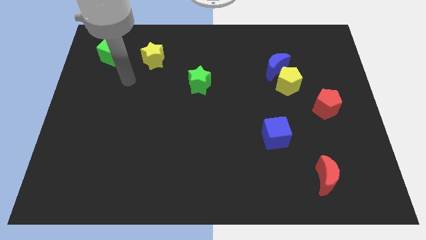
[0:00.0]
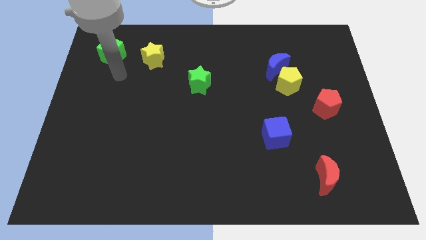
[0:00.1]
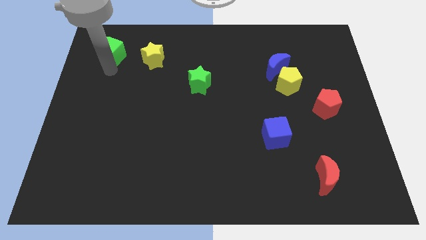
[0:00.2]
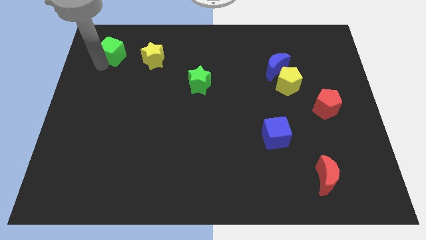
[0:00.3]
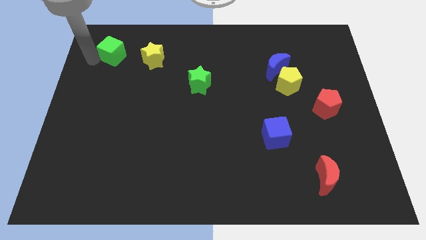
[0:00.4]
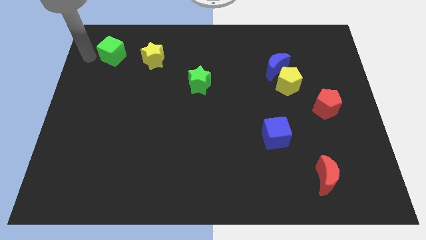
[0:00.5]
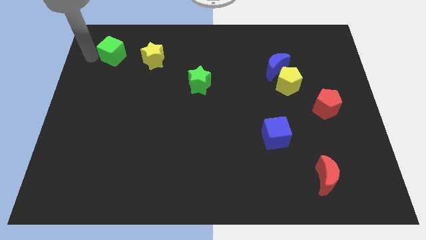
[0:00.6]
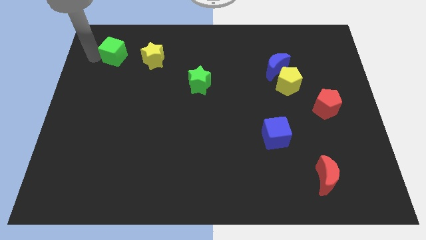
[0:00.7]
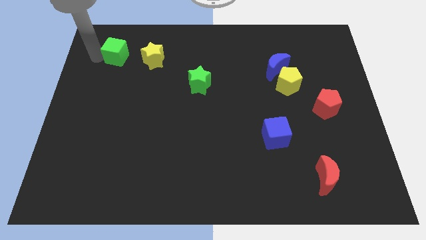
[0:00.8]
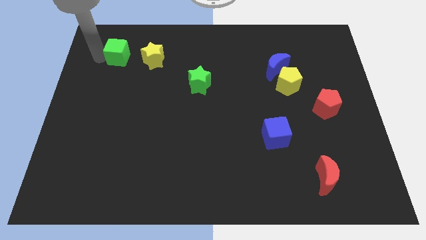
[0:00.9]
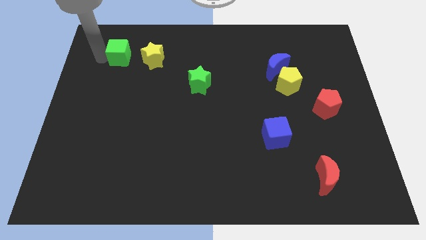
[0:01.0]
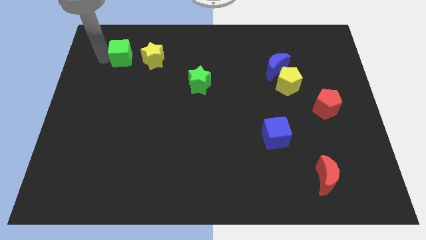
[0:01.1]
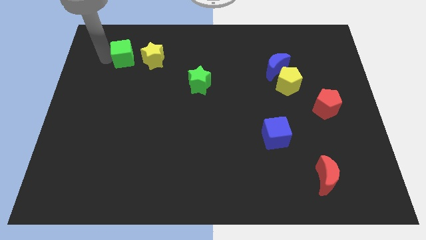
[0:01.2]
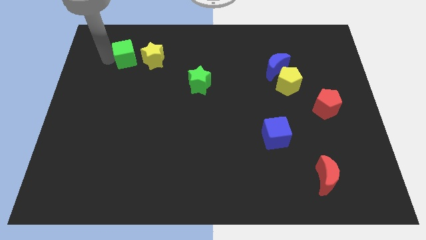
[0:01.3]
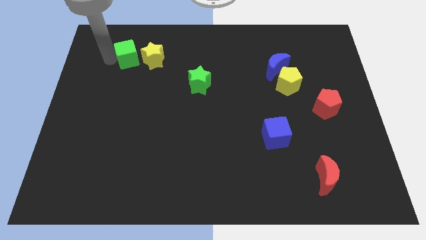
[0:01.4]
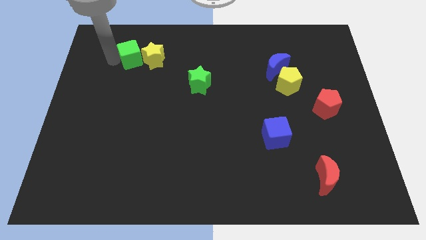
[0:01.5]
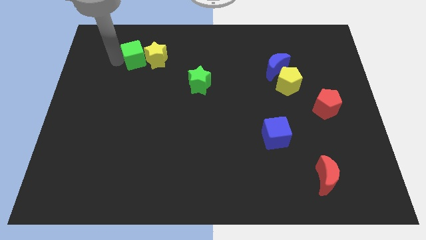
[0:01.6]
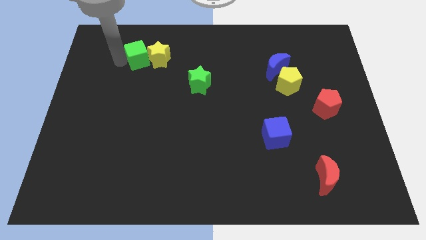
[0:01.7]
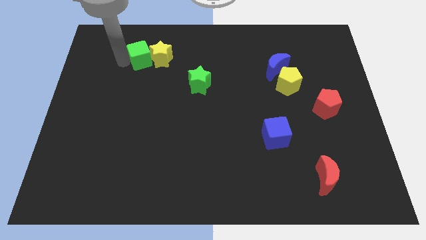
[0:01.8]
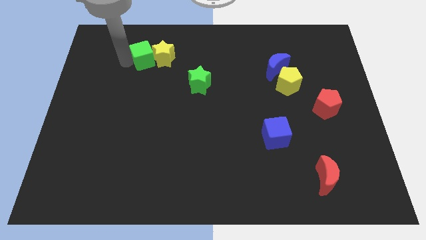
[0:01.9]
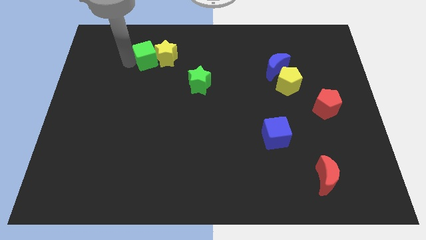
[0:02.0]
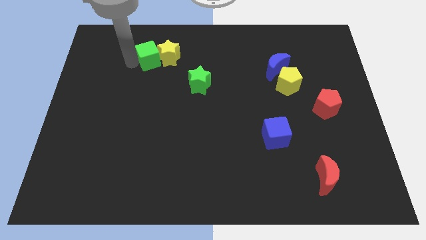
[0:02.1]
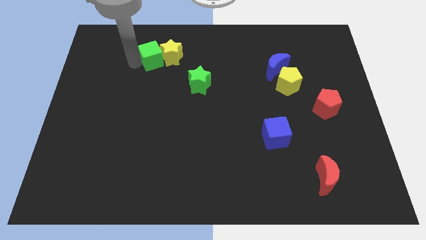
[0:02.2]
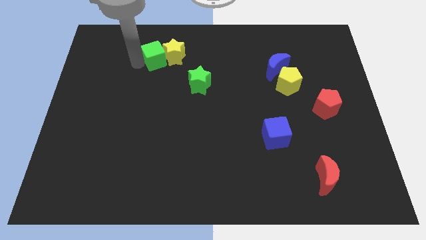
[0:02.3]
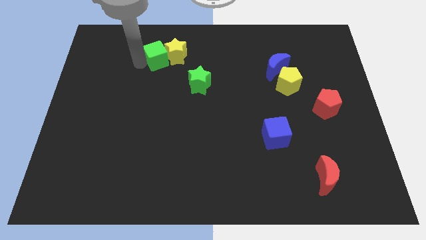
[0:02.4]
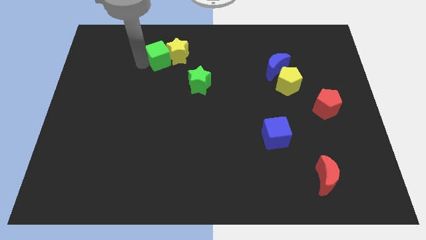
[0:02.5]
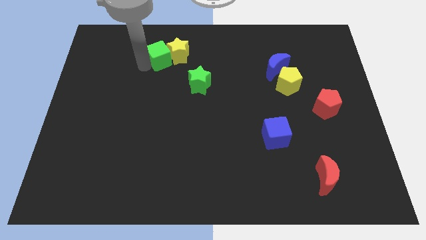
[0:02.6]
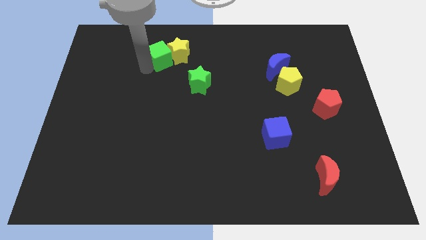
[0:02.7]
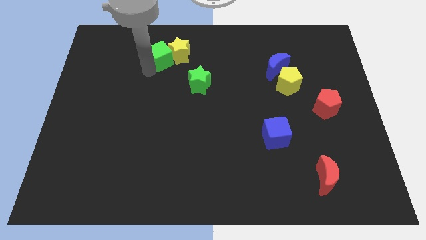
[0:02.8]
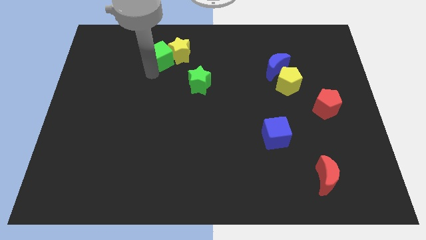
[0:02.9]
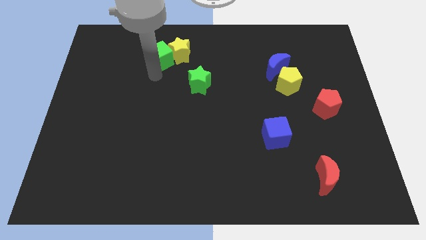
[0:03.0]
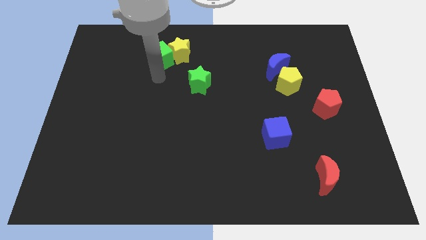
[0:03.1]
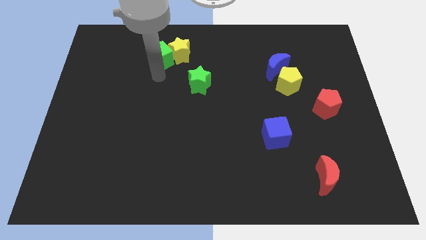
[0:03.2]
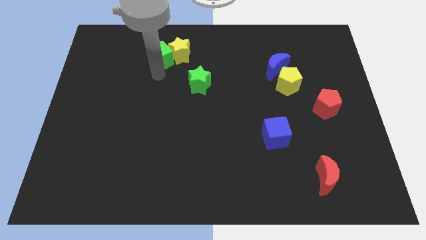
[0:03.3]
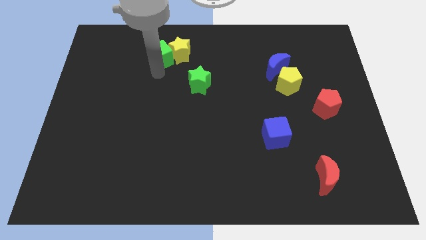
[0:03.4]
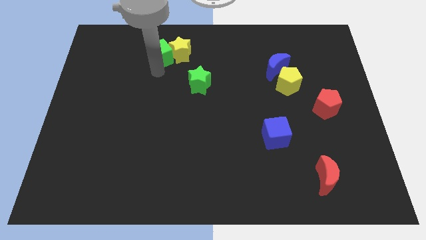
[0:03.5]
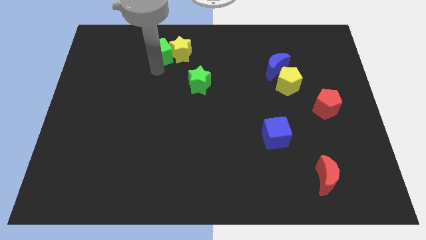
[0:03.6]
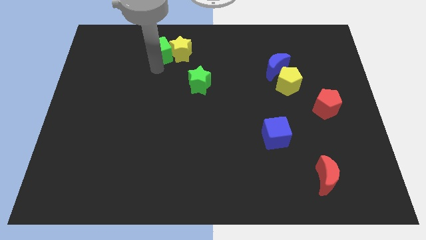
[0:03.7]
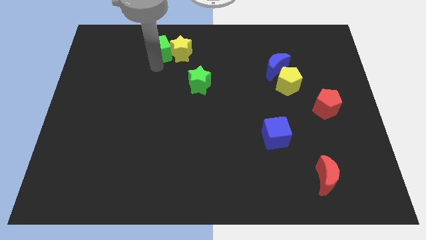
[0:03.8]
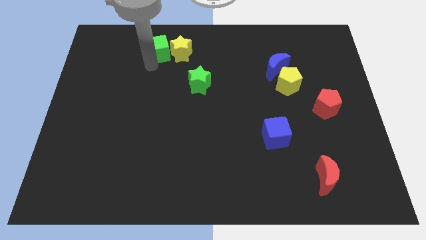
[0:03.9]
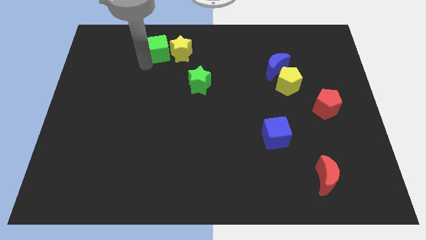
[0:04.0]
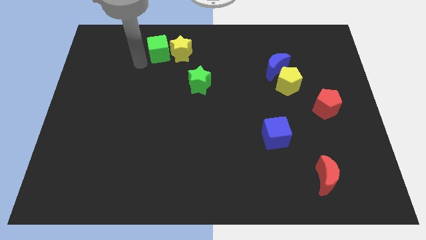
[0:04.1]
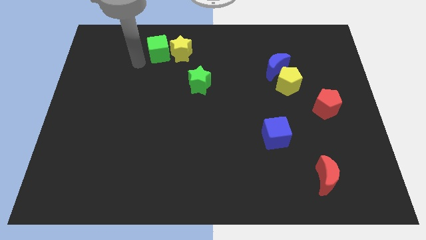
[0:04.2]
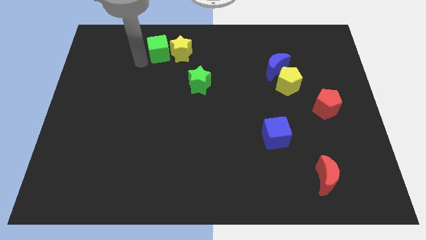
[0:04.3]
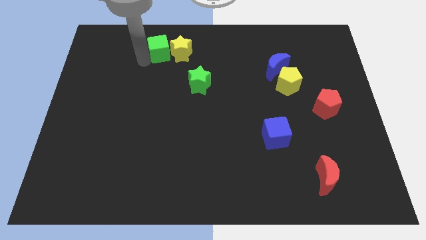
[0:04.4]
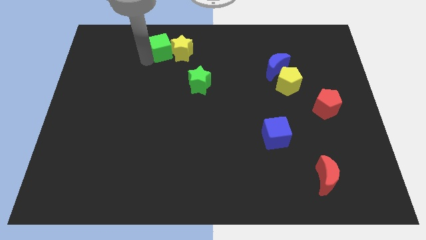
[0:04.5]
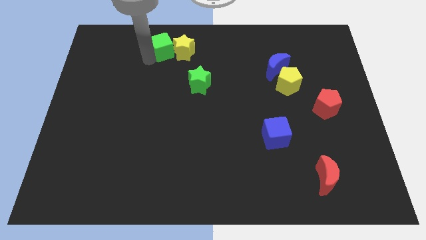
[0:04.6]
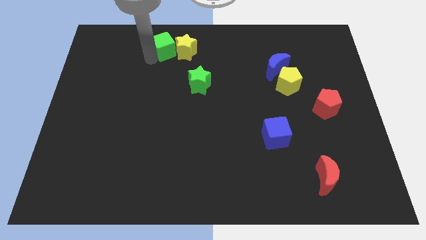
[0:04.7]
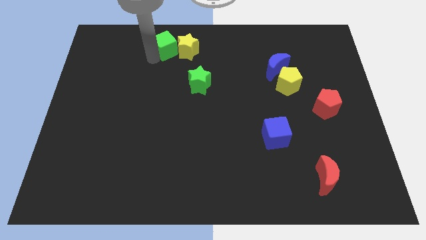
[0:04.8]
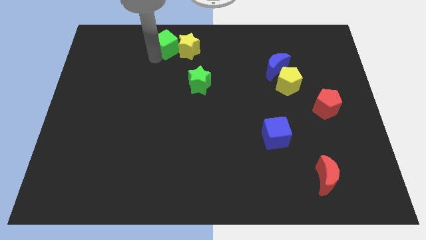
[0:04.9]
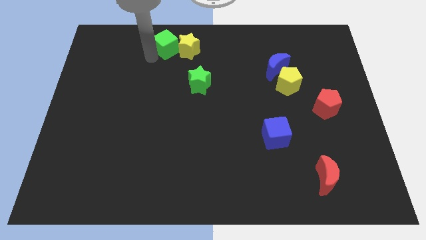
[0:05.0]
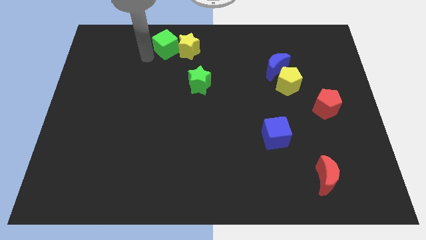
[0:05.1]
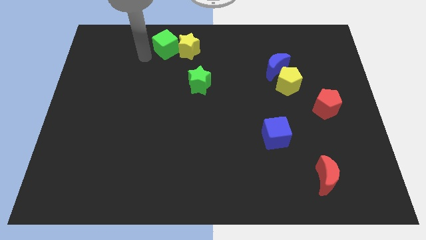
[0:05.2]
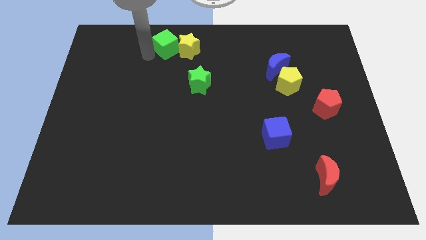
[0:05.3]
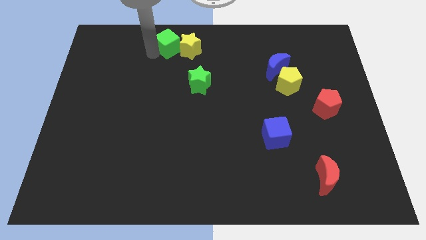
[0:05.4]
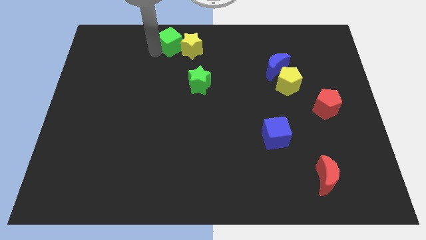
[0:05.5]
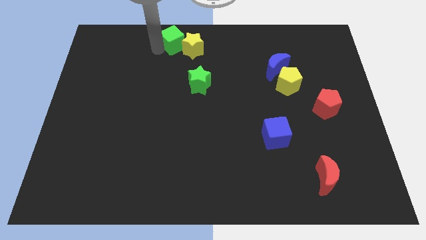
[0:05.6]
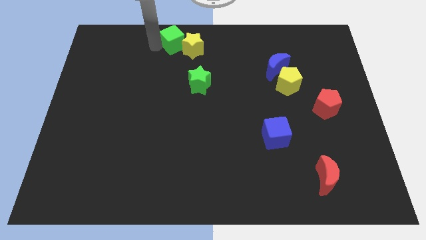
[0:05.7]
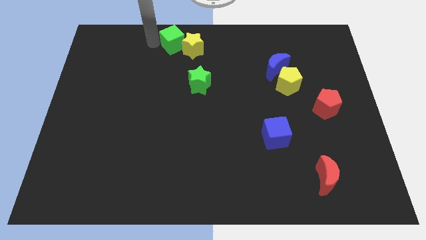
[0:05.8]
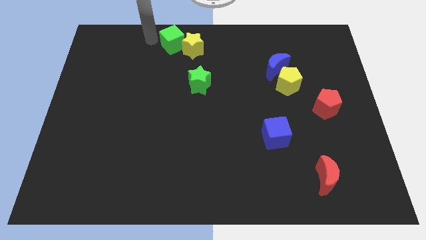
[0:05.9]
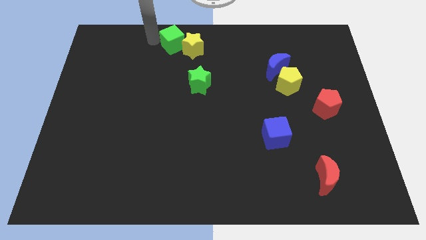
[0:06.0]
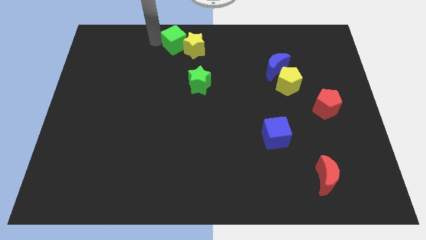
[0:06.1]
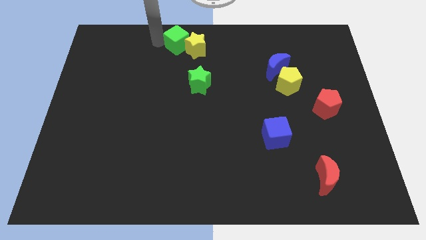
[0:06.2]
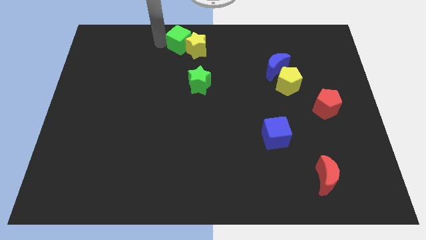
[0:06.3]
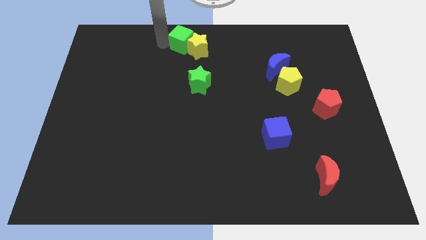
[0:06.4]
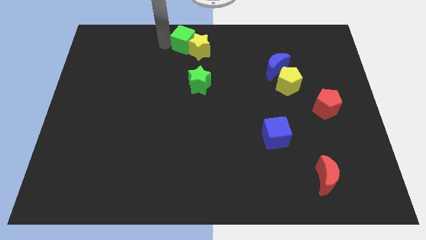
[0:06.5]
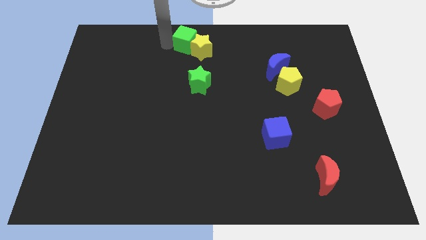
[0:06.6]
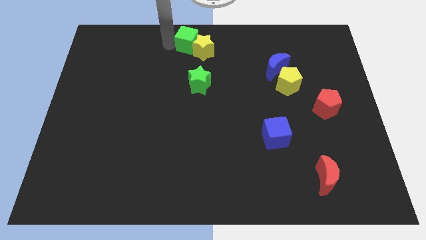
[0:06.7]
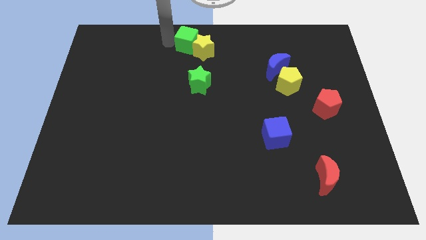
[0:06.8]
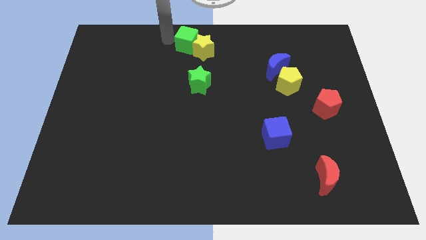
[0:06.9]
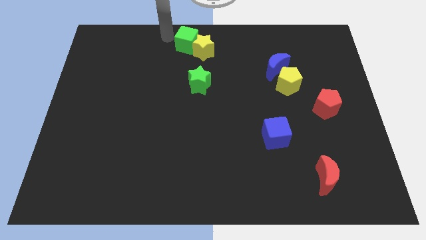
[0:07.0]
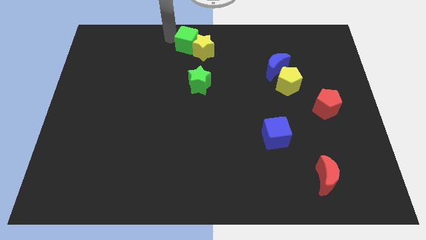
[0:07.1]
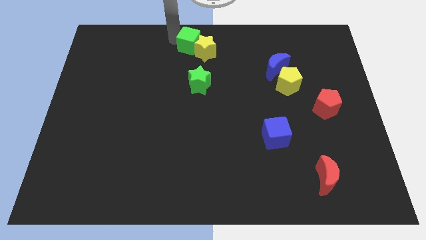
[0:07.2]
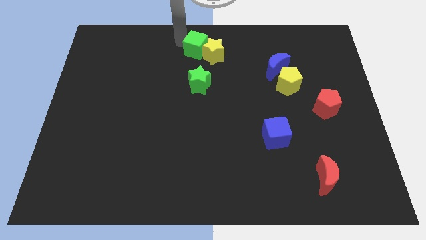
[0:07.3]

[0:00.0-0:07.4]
move the green cube to the right

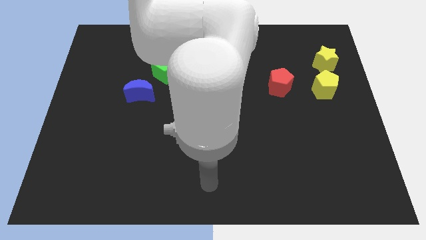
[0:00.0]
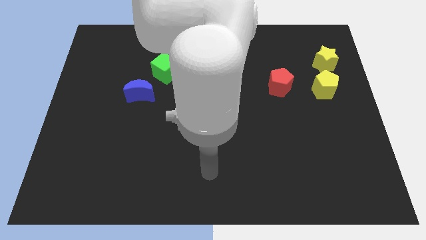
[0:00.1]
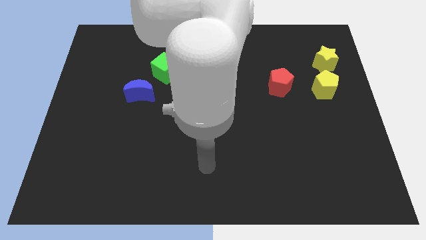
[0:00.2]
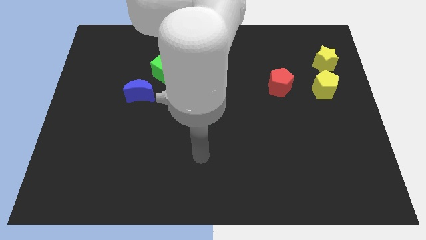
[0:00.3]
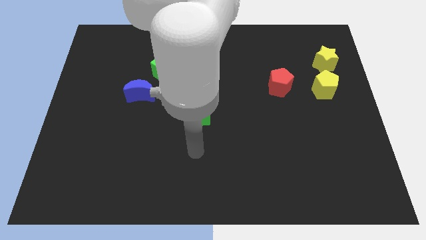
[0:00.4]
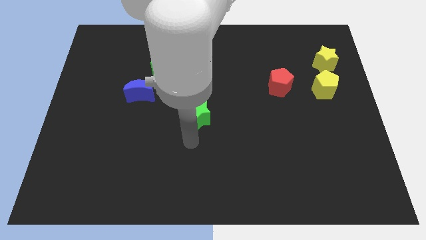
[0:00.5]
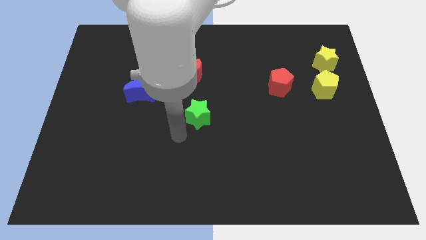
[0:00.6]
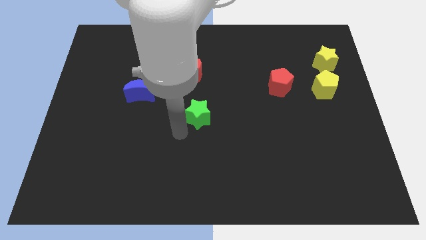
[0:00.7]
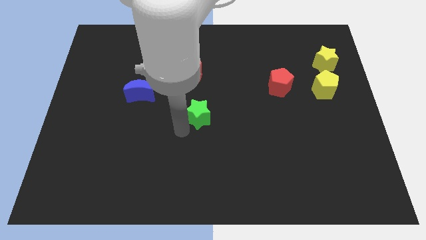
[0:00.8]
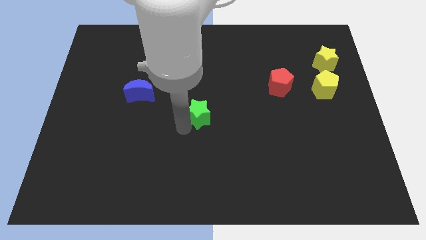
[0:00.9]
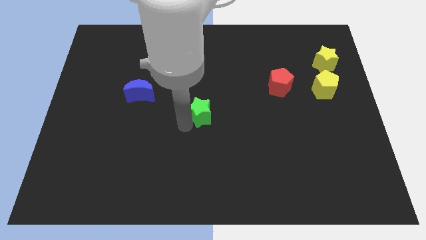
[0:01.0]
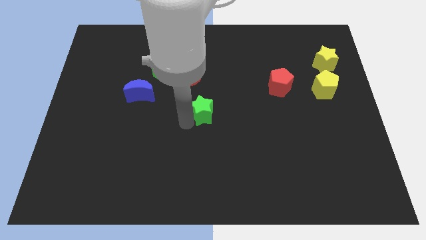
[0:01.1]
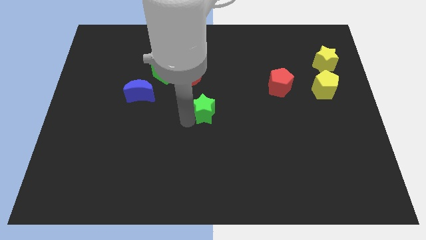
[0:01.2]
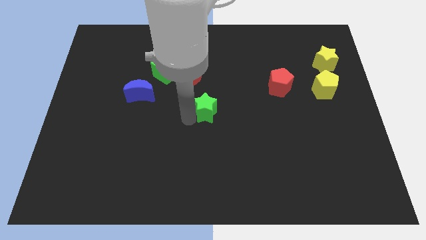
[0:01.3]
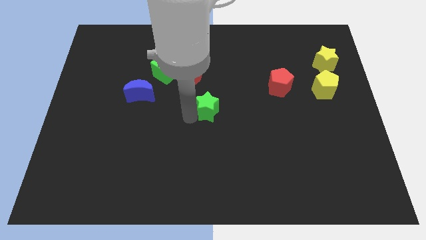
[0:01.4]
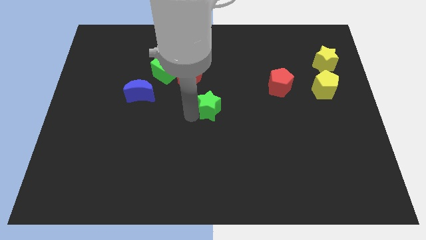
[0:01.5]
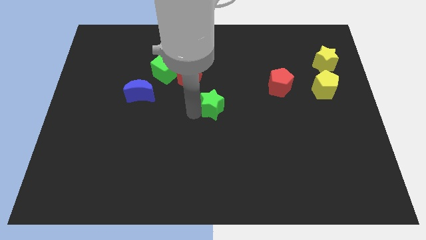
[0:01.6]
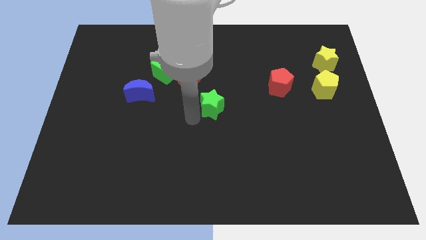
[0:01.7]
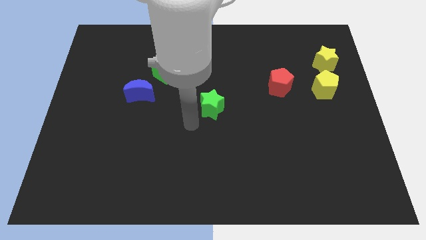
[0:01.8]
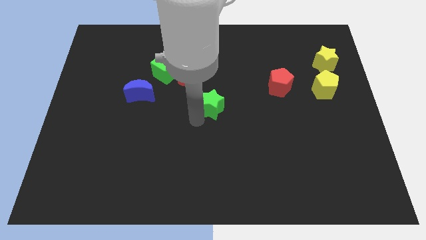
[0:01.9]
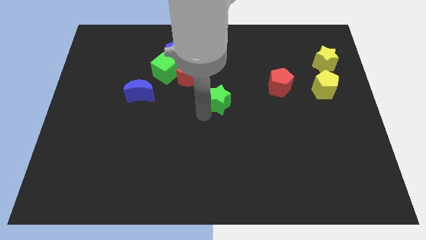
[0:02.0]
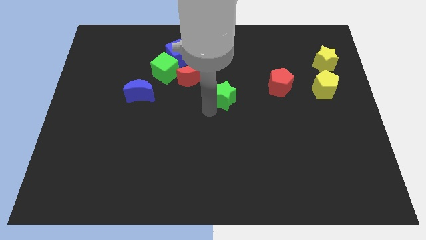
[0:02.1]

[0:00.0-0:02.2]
slightly slide the green star diagonally upwards and to the right
